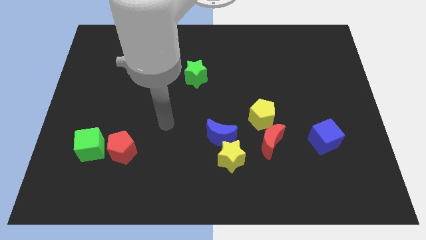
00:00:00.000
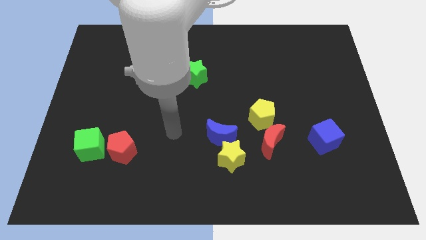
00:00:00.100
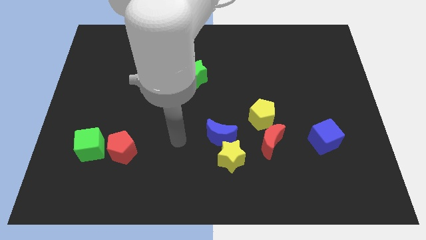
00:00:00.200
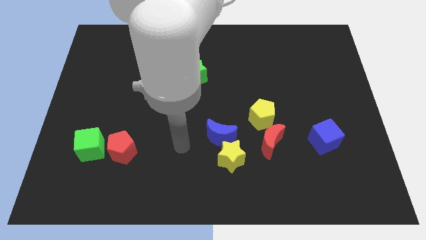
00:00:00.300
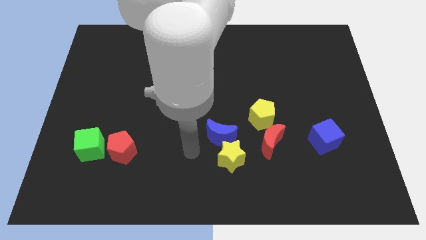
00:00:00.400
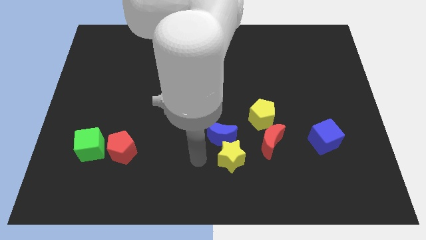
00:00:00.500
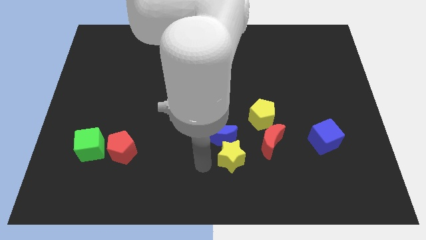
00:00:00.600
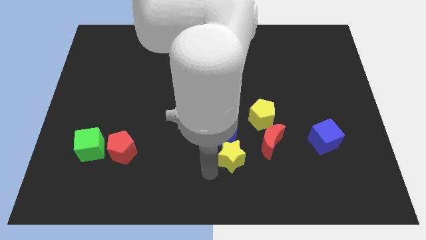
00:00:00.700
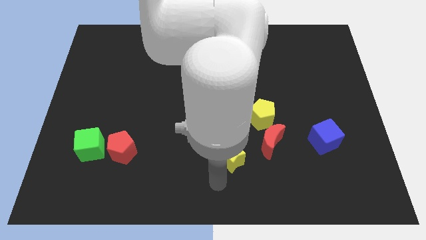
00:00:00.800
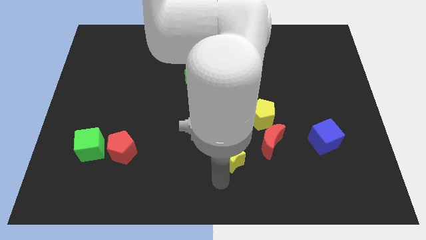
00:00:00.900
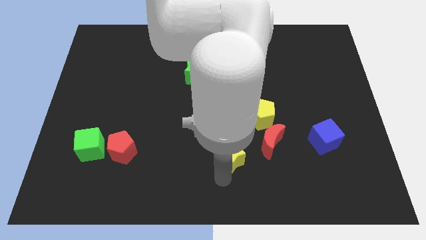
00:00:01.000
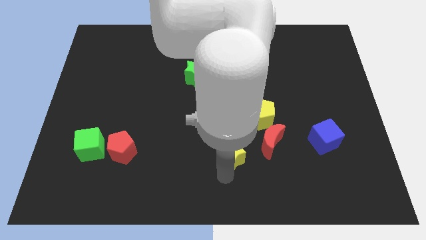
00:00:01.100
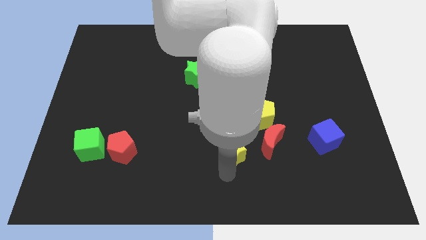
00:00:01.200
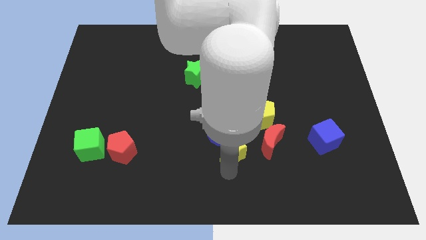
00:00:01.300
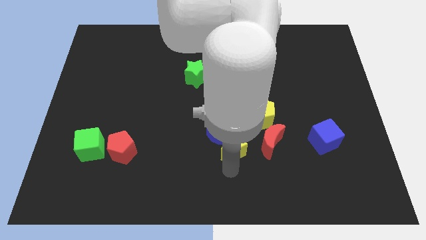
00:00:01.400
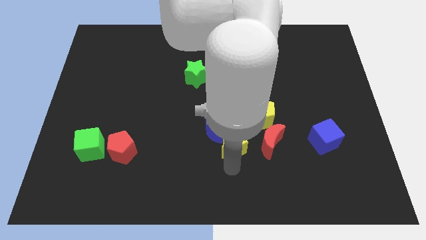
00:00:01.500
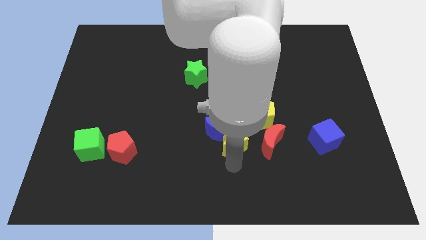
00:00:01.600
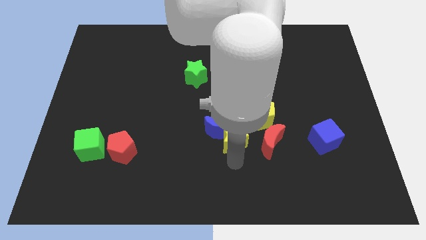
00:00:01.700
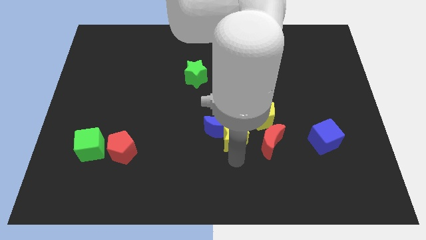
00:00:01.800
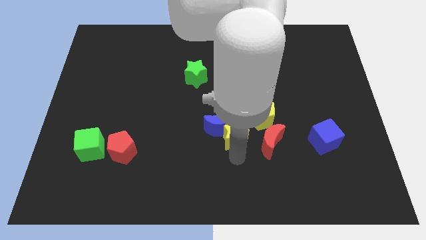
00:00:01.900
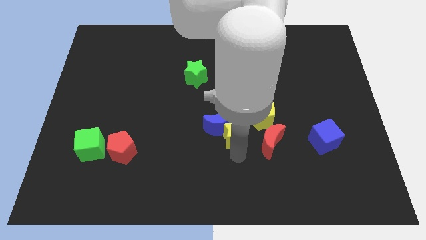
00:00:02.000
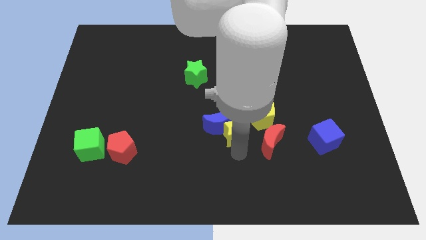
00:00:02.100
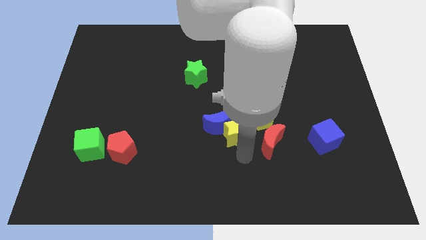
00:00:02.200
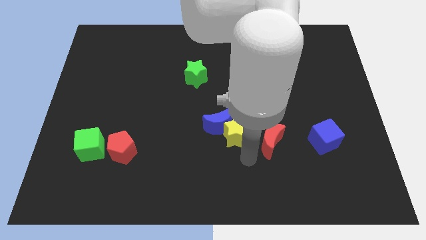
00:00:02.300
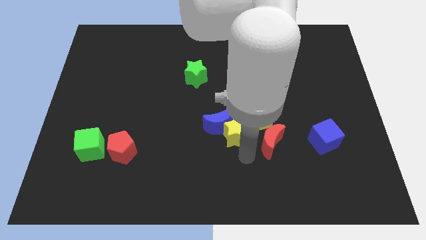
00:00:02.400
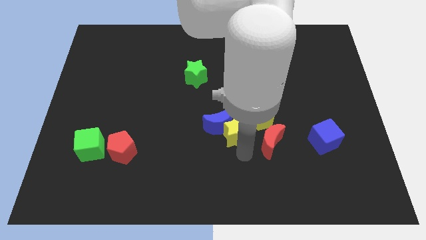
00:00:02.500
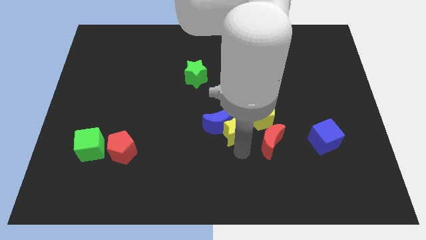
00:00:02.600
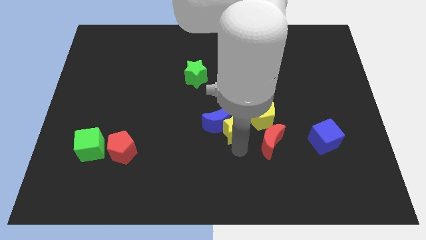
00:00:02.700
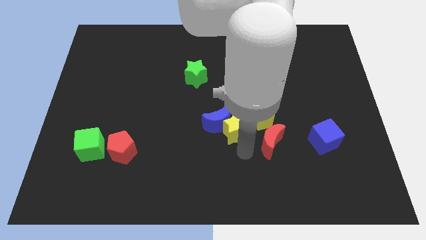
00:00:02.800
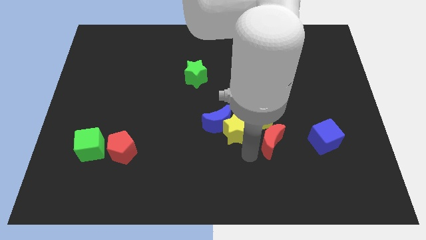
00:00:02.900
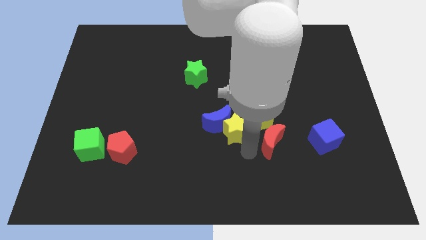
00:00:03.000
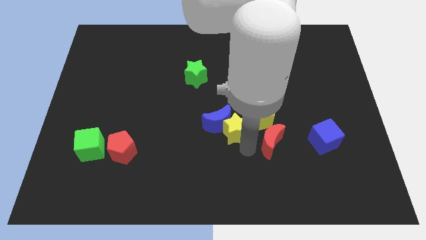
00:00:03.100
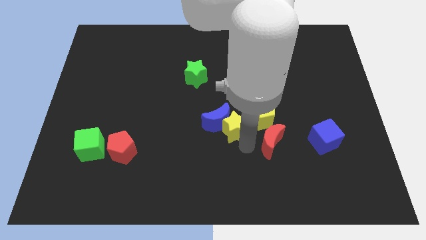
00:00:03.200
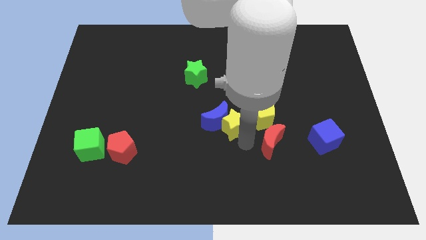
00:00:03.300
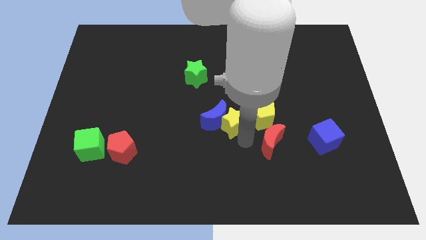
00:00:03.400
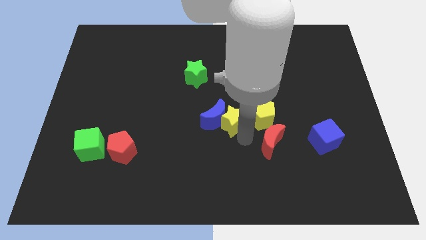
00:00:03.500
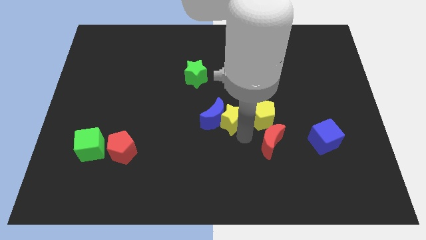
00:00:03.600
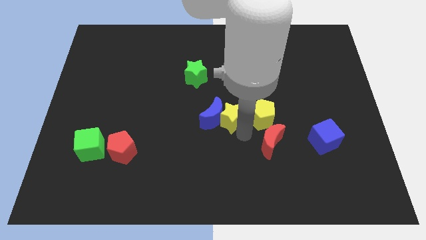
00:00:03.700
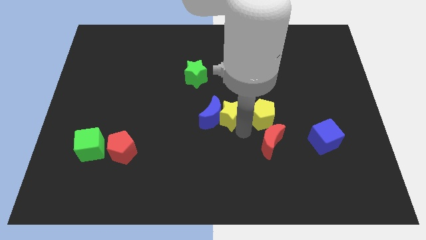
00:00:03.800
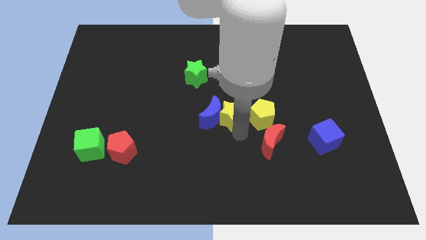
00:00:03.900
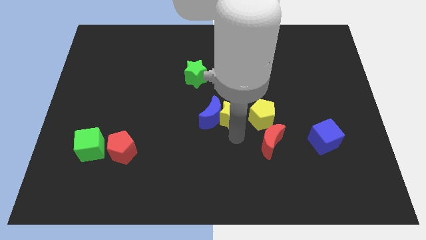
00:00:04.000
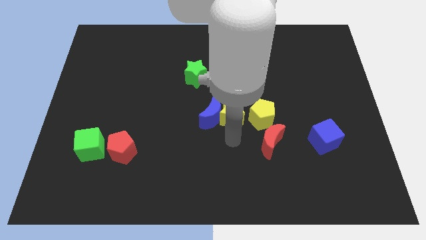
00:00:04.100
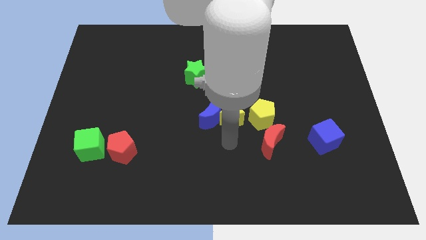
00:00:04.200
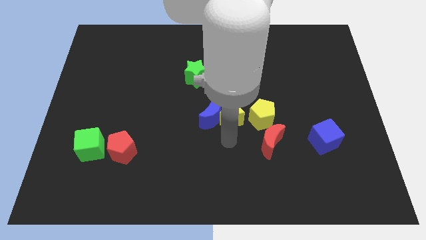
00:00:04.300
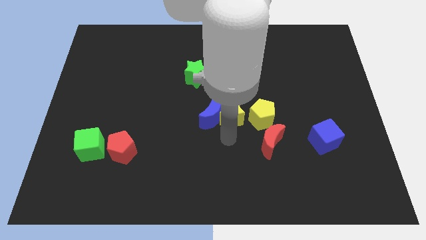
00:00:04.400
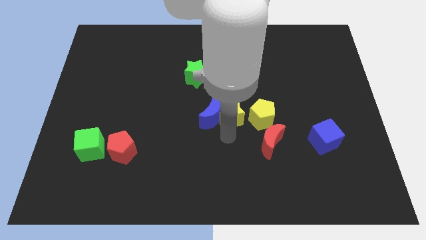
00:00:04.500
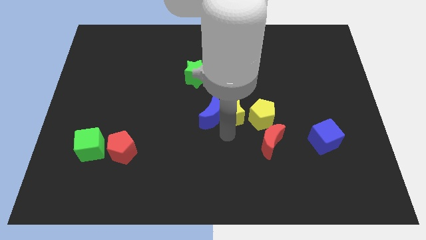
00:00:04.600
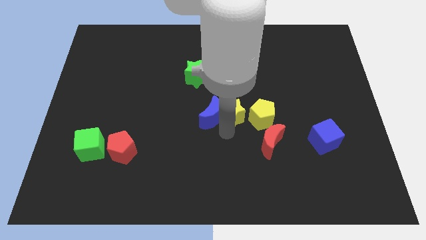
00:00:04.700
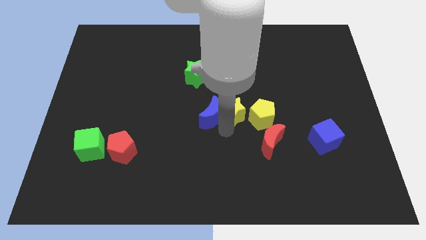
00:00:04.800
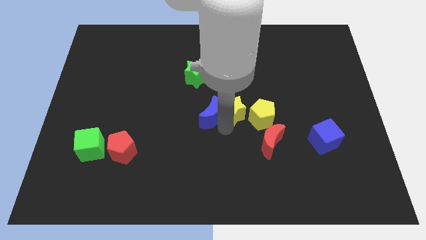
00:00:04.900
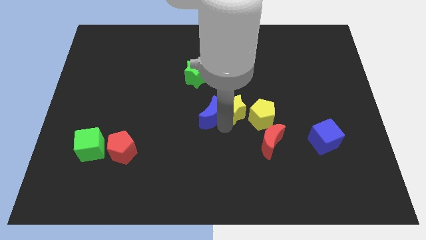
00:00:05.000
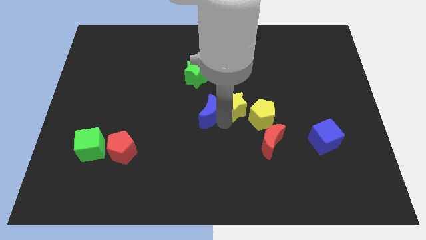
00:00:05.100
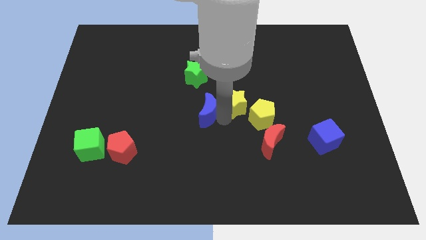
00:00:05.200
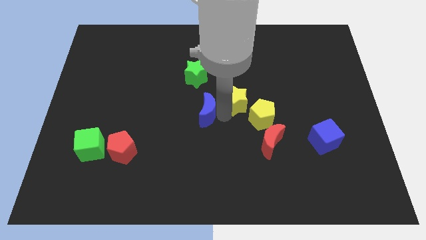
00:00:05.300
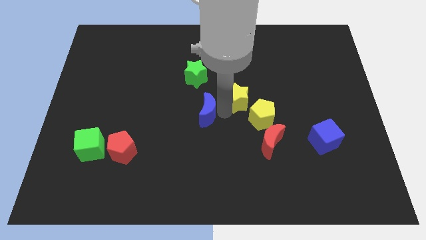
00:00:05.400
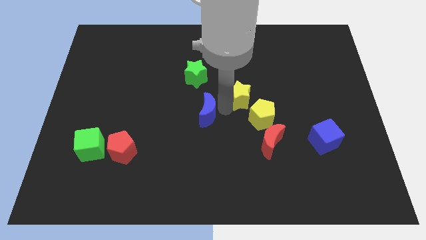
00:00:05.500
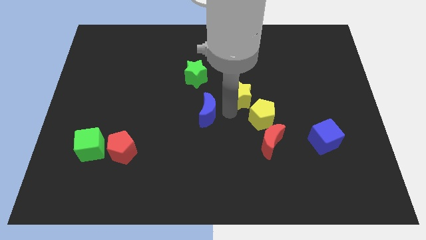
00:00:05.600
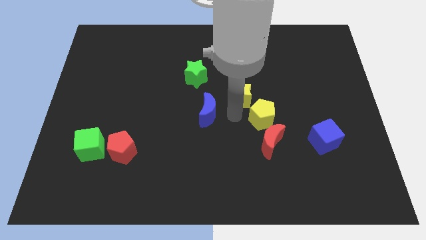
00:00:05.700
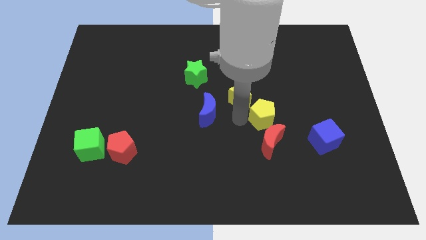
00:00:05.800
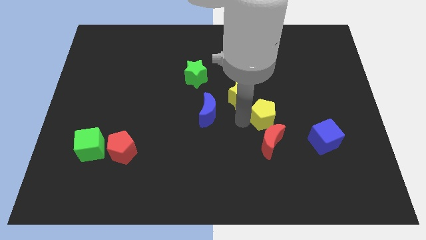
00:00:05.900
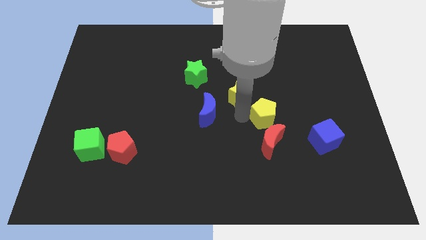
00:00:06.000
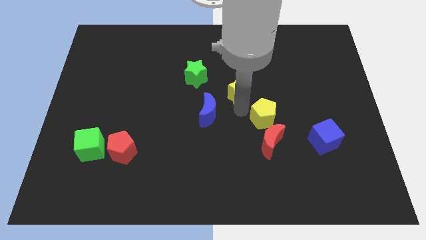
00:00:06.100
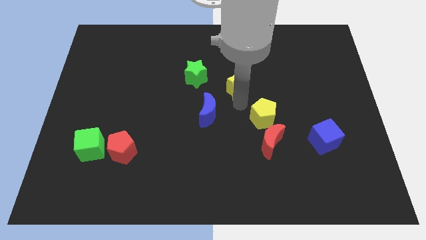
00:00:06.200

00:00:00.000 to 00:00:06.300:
slide the yellow star to the right of the green star
